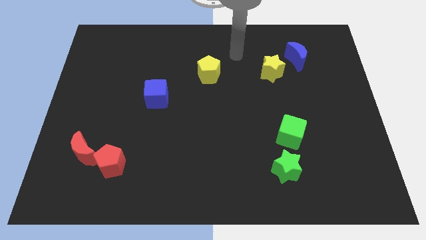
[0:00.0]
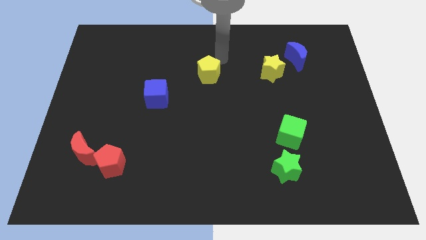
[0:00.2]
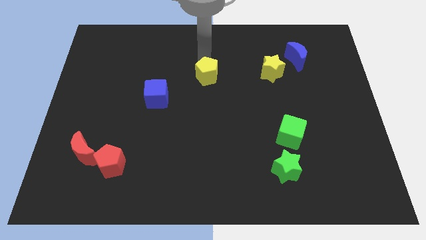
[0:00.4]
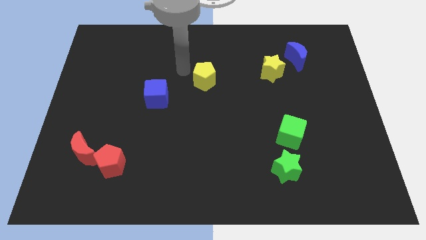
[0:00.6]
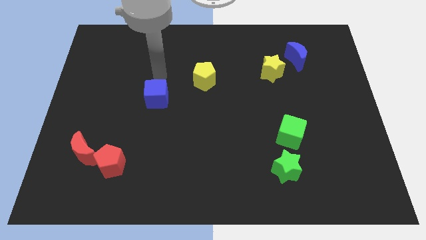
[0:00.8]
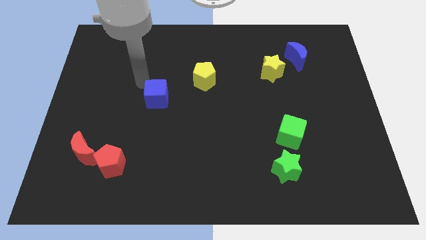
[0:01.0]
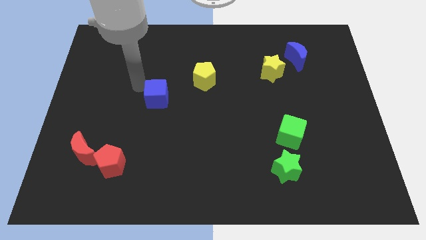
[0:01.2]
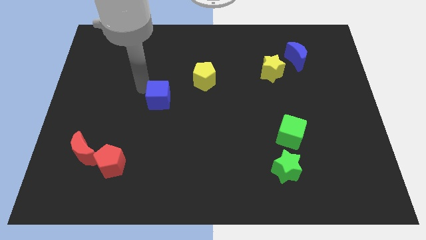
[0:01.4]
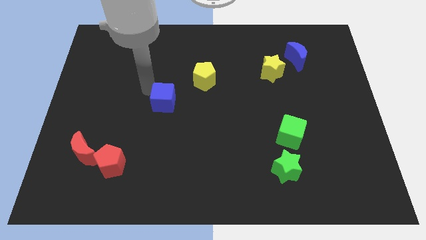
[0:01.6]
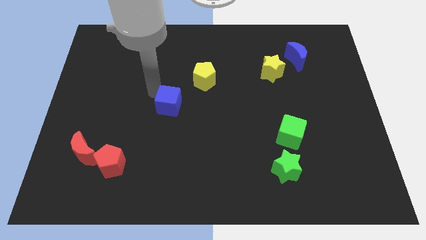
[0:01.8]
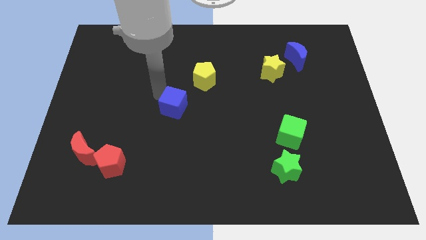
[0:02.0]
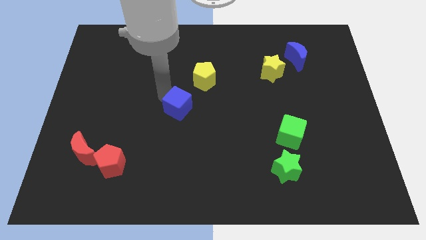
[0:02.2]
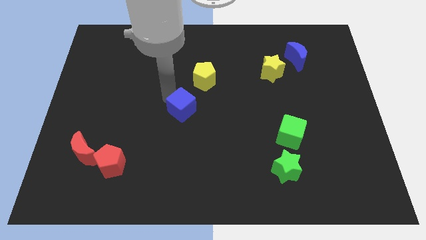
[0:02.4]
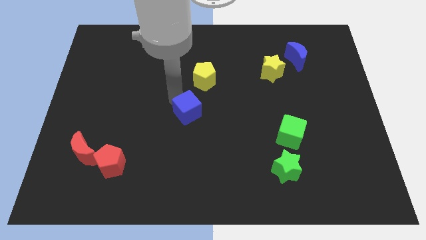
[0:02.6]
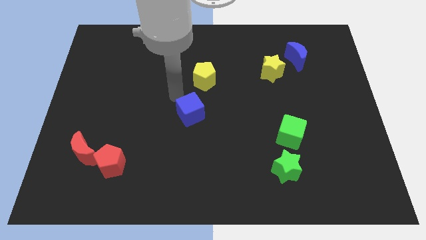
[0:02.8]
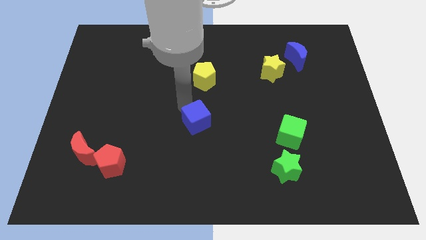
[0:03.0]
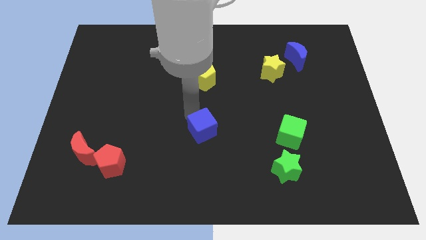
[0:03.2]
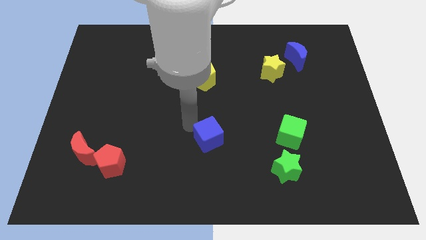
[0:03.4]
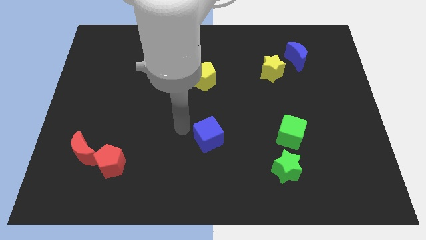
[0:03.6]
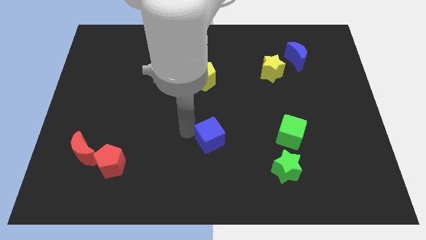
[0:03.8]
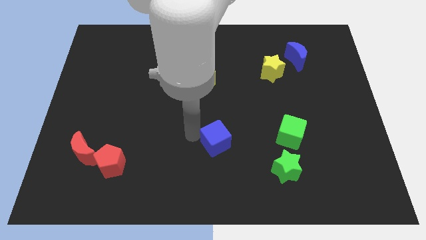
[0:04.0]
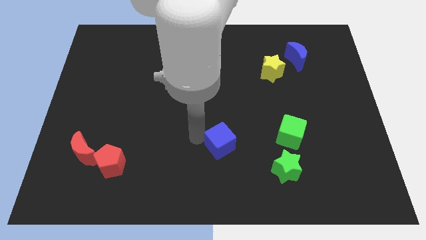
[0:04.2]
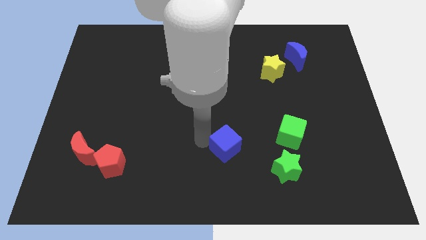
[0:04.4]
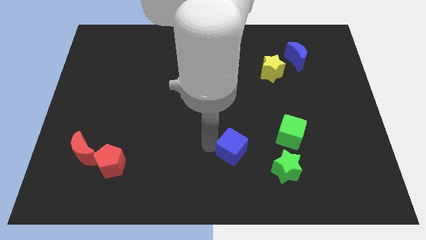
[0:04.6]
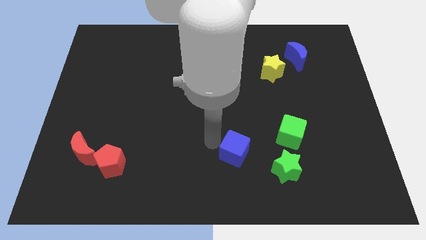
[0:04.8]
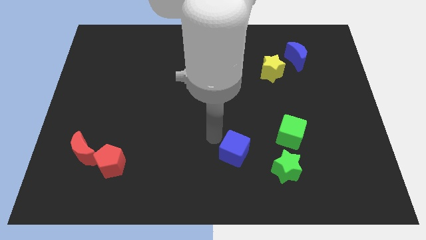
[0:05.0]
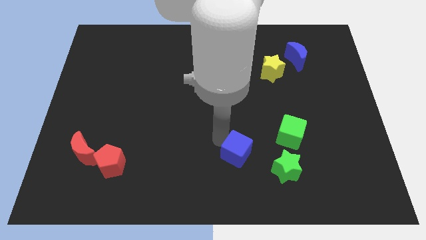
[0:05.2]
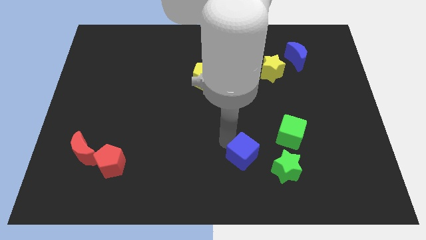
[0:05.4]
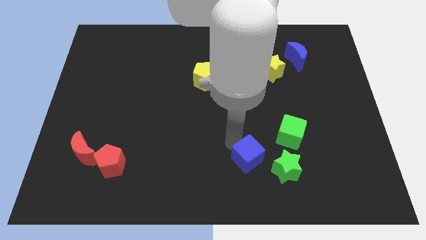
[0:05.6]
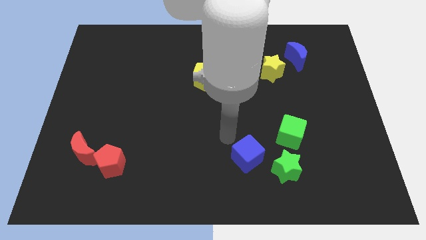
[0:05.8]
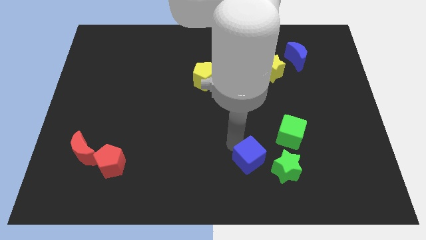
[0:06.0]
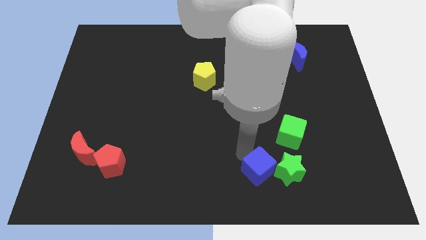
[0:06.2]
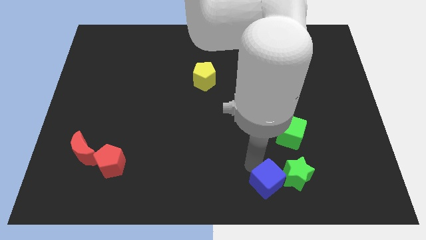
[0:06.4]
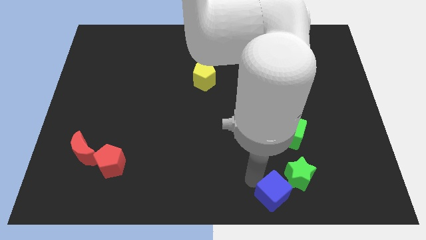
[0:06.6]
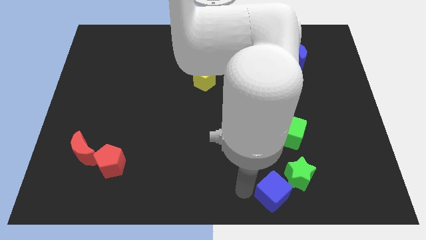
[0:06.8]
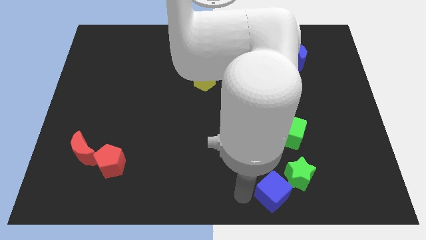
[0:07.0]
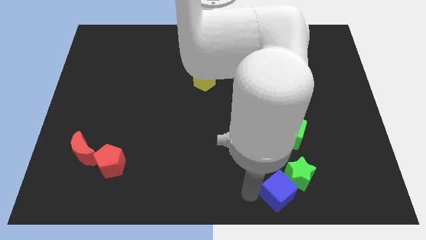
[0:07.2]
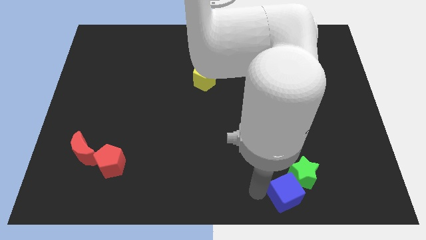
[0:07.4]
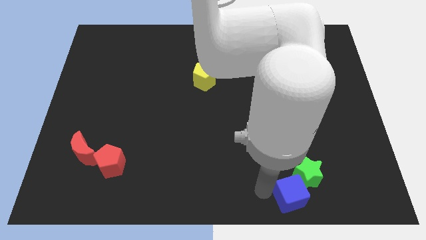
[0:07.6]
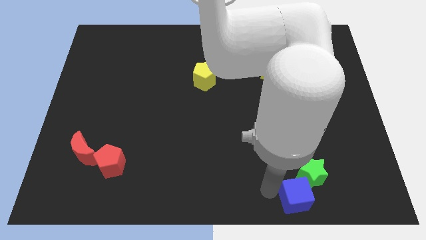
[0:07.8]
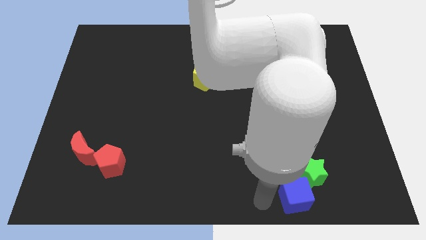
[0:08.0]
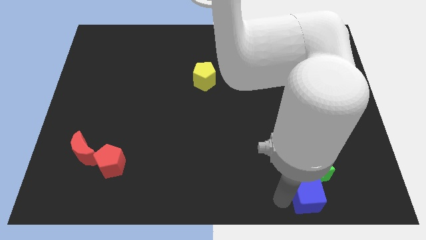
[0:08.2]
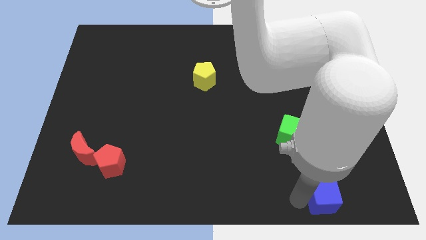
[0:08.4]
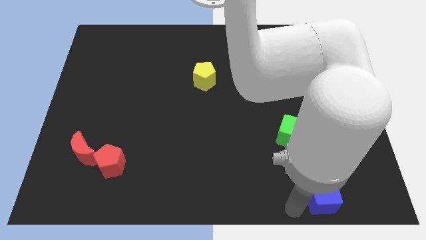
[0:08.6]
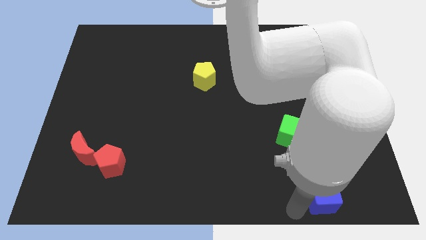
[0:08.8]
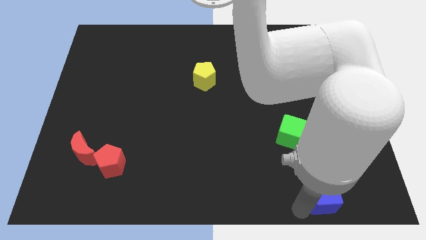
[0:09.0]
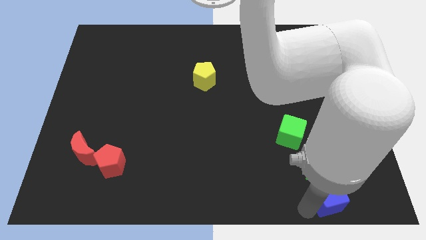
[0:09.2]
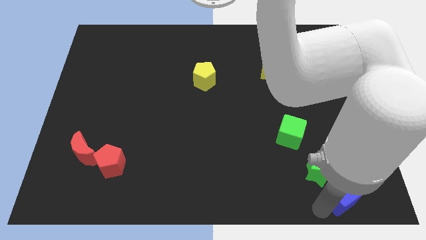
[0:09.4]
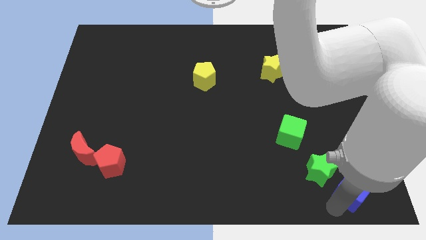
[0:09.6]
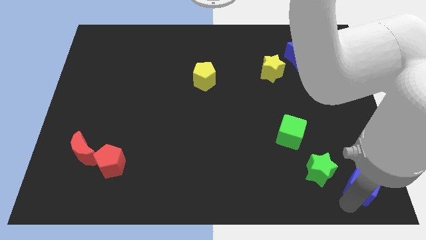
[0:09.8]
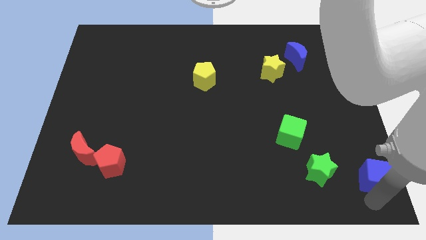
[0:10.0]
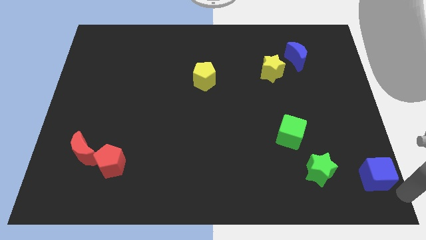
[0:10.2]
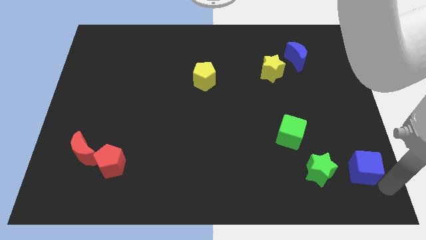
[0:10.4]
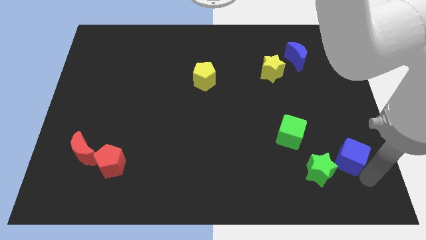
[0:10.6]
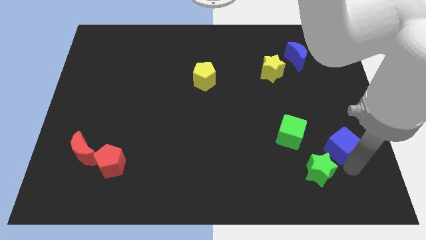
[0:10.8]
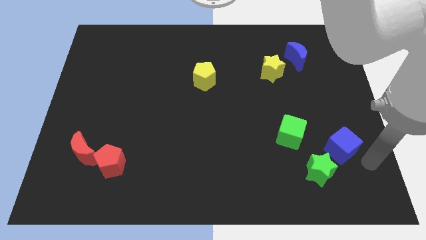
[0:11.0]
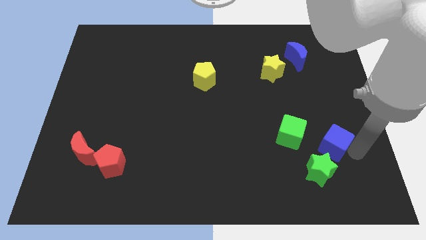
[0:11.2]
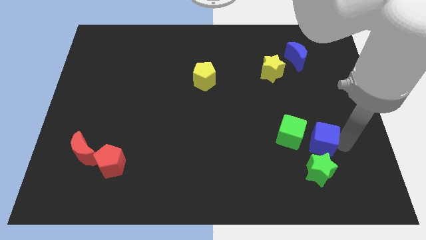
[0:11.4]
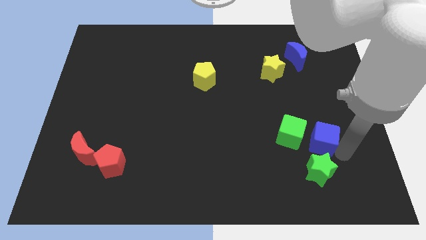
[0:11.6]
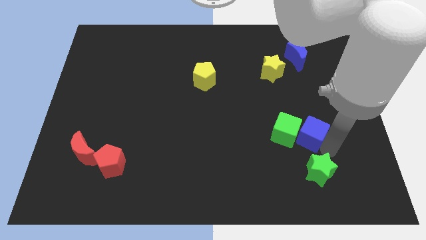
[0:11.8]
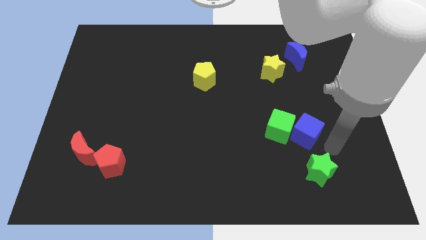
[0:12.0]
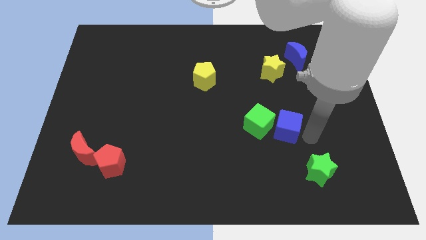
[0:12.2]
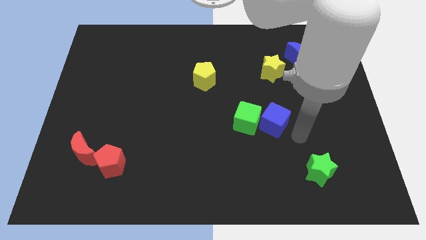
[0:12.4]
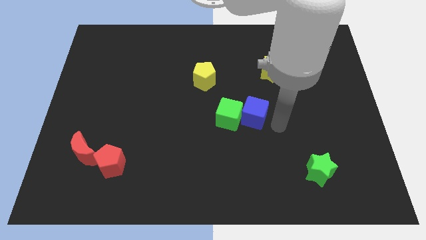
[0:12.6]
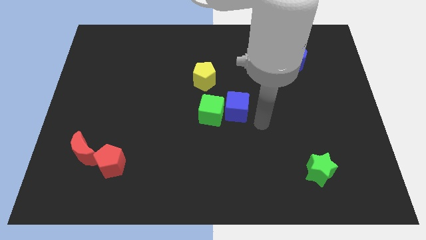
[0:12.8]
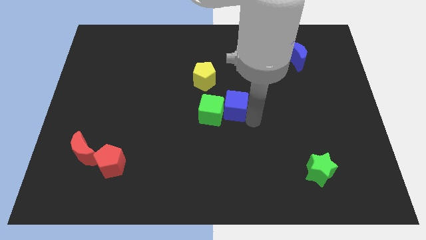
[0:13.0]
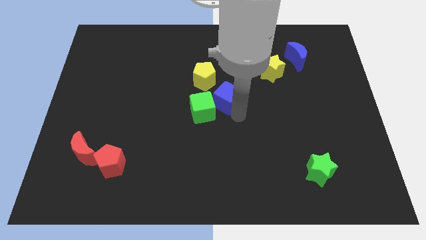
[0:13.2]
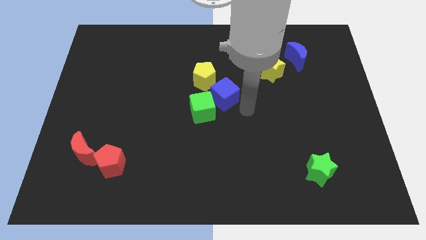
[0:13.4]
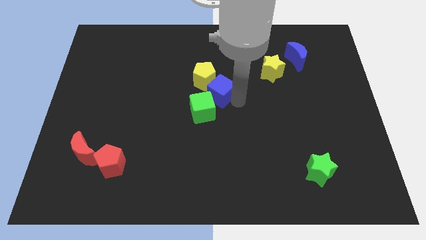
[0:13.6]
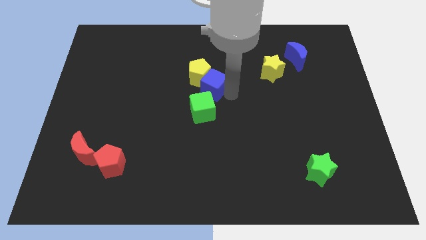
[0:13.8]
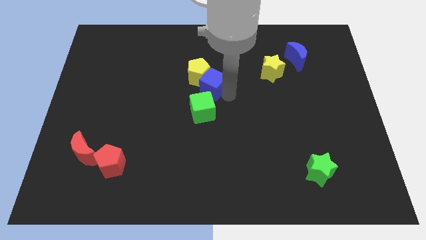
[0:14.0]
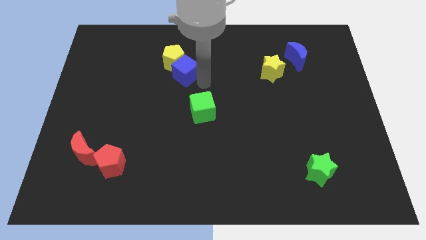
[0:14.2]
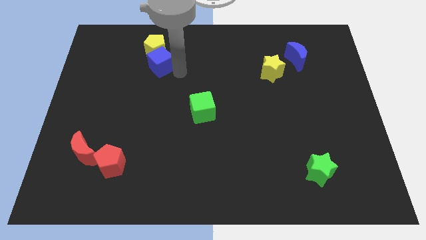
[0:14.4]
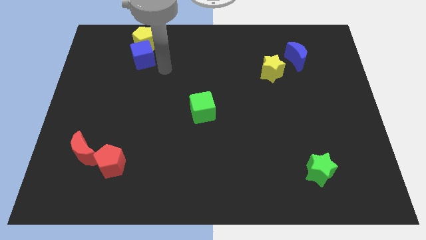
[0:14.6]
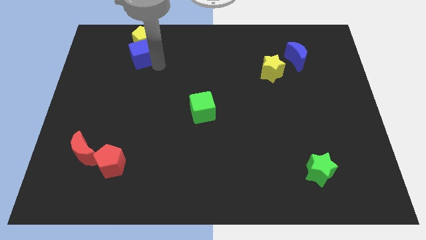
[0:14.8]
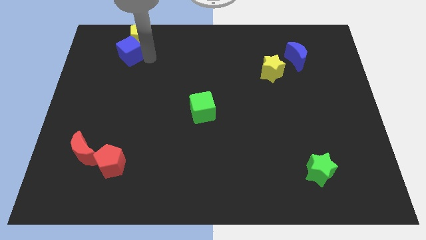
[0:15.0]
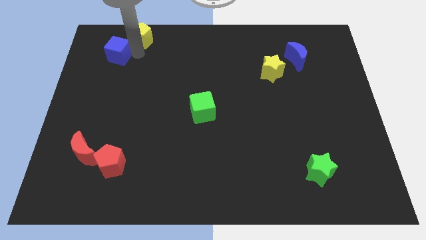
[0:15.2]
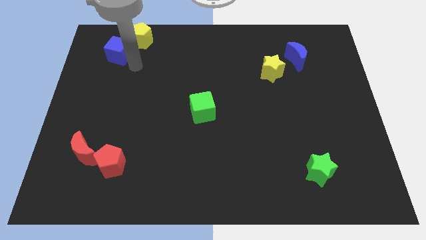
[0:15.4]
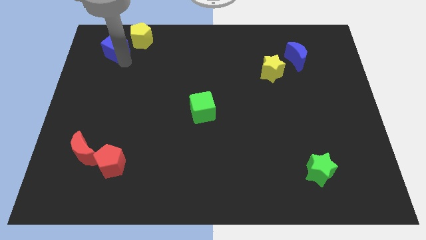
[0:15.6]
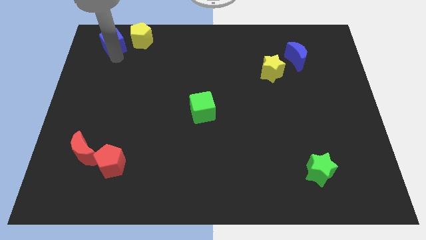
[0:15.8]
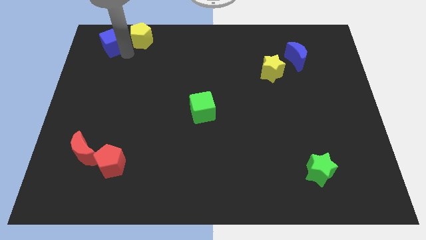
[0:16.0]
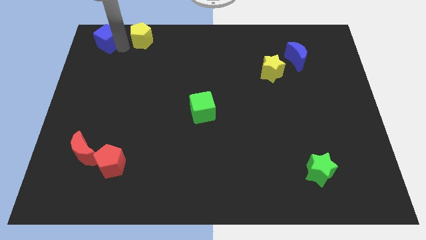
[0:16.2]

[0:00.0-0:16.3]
put the blue cube to the top left of the board
